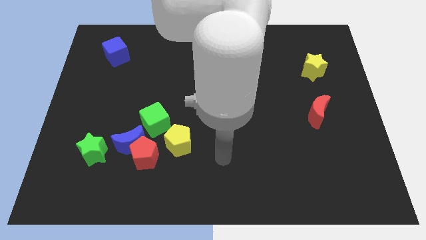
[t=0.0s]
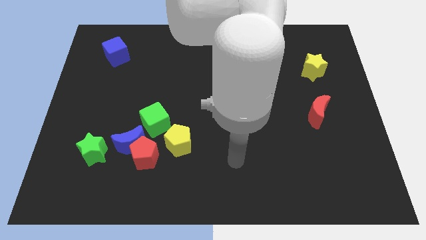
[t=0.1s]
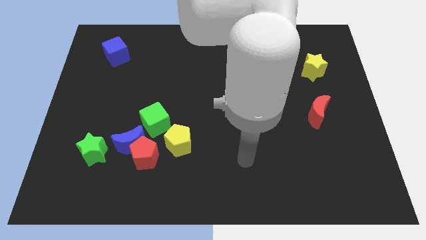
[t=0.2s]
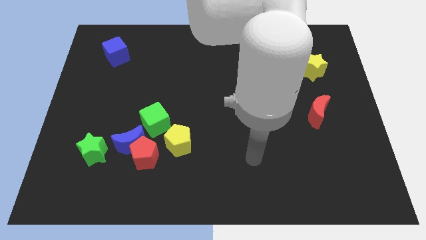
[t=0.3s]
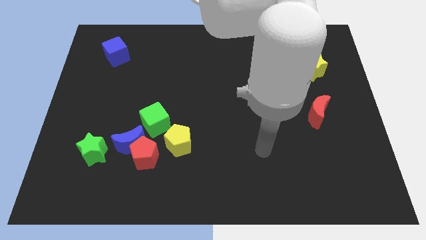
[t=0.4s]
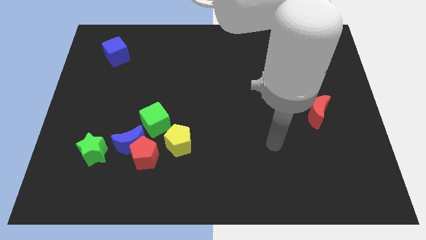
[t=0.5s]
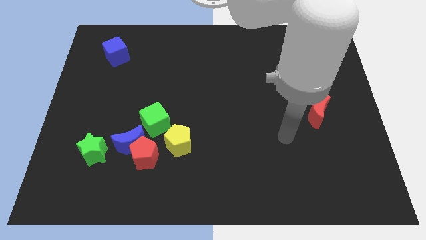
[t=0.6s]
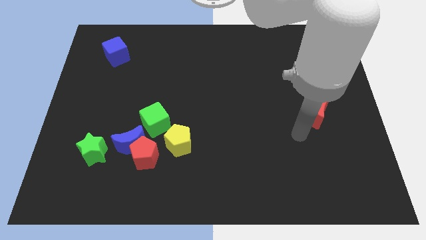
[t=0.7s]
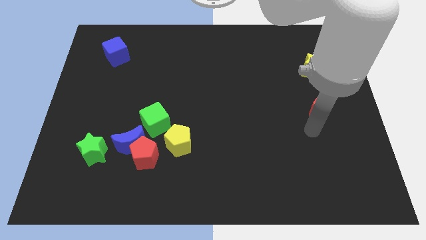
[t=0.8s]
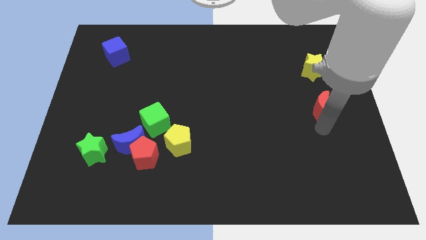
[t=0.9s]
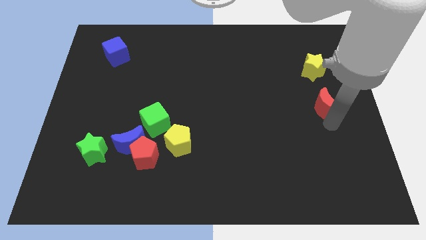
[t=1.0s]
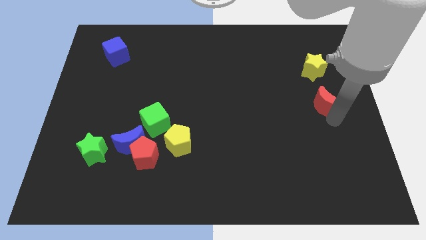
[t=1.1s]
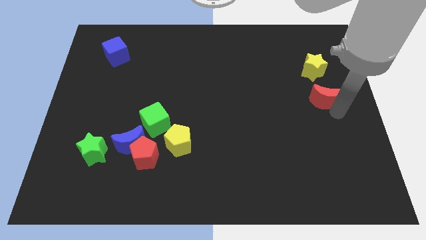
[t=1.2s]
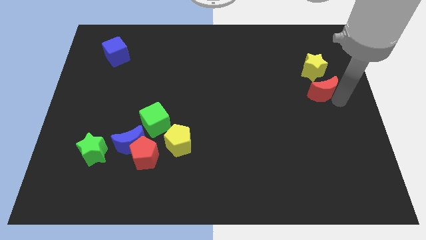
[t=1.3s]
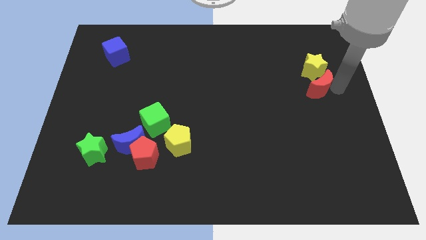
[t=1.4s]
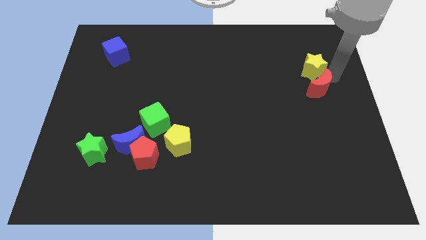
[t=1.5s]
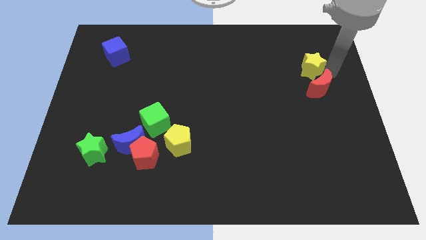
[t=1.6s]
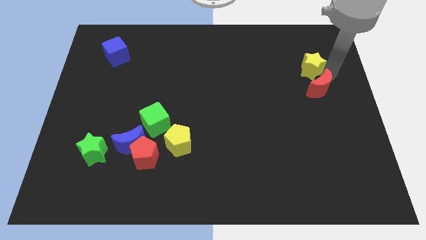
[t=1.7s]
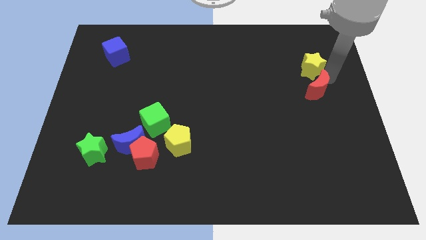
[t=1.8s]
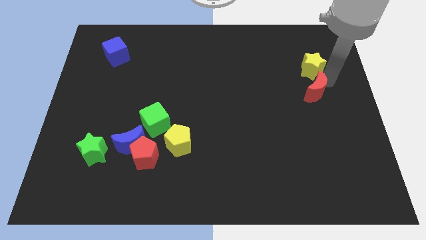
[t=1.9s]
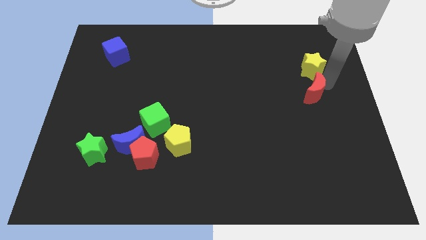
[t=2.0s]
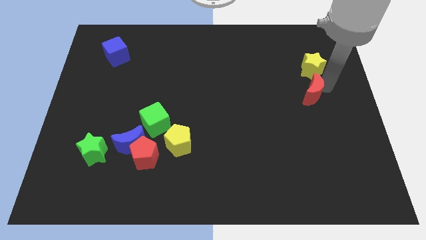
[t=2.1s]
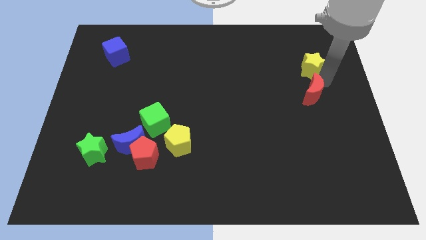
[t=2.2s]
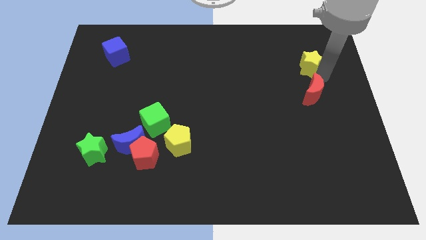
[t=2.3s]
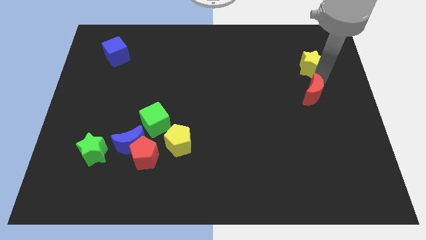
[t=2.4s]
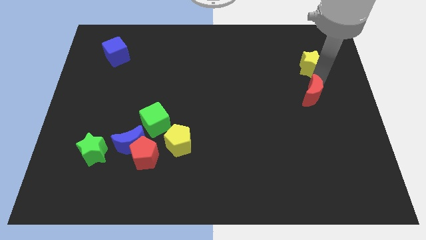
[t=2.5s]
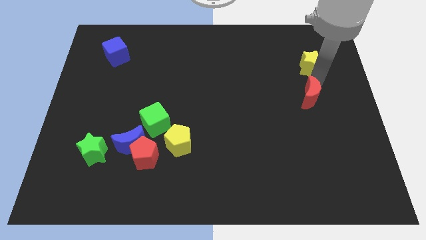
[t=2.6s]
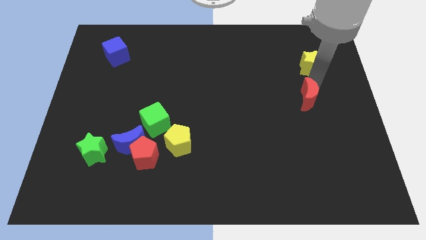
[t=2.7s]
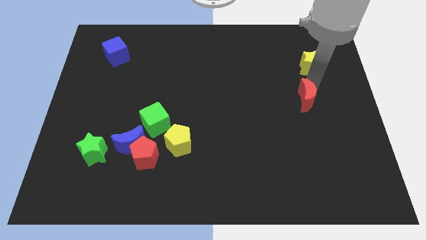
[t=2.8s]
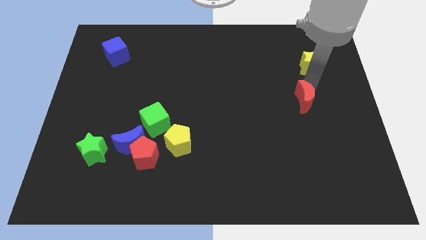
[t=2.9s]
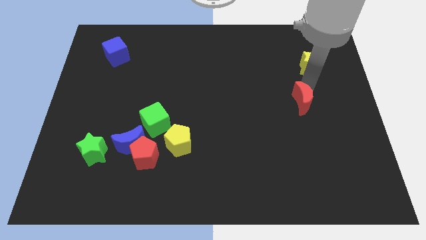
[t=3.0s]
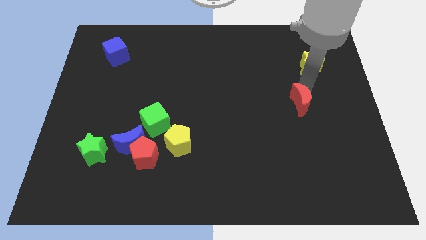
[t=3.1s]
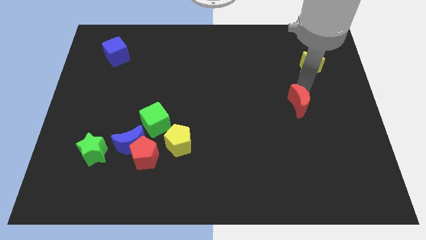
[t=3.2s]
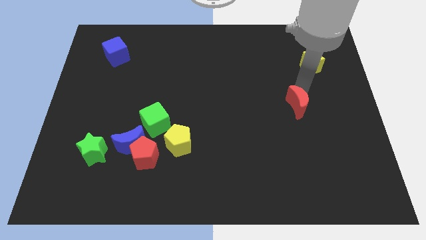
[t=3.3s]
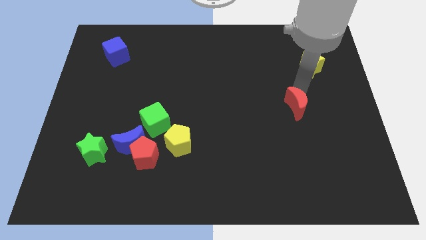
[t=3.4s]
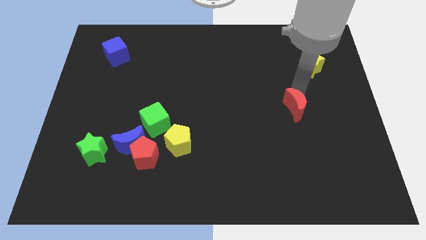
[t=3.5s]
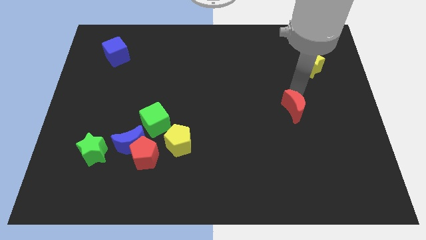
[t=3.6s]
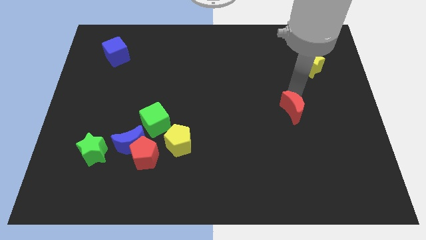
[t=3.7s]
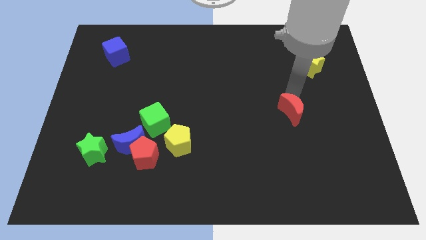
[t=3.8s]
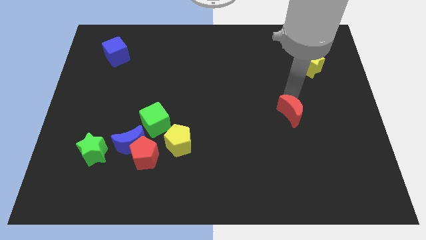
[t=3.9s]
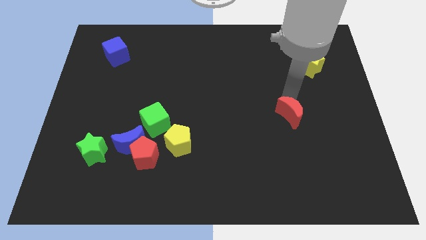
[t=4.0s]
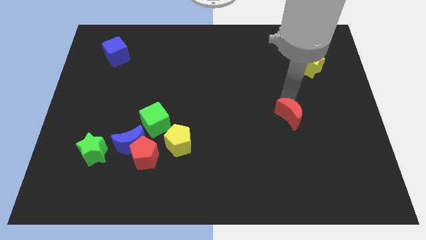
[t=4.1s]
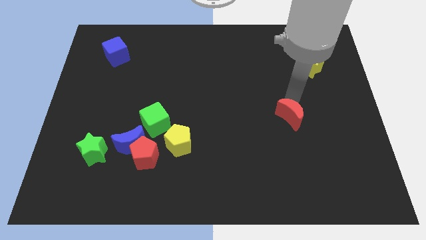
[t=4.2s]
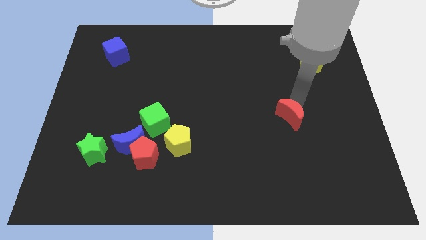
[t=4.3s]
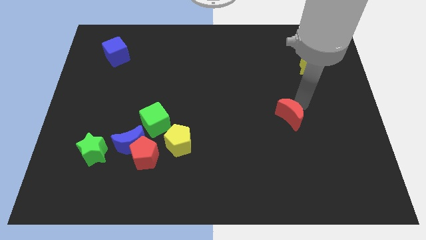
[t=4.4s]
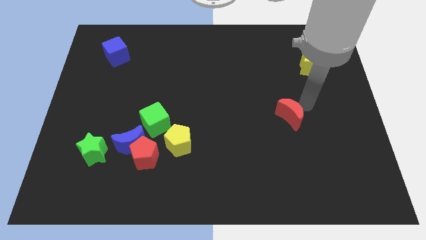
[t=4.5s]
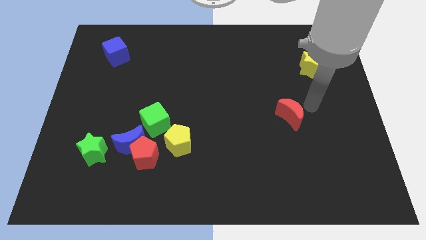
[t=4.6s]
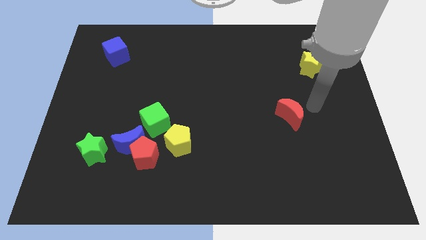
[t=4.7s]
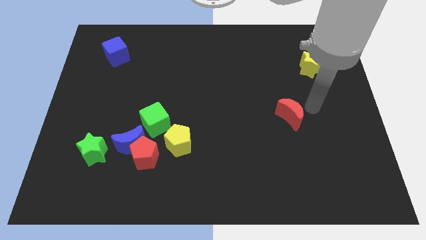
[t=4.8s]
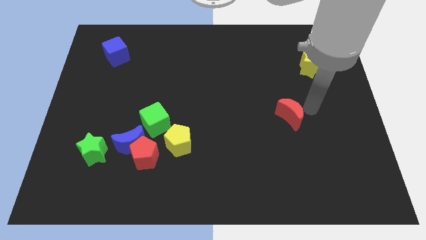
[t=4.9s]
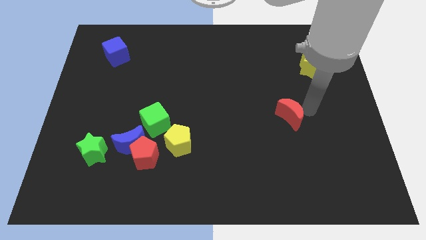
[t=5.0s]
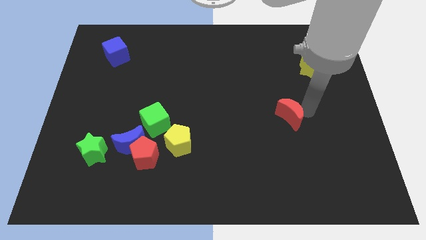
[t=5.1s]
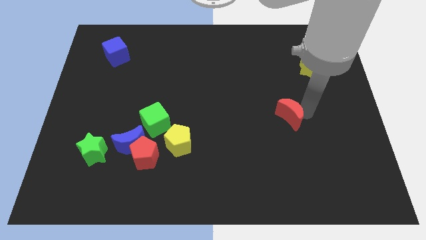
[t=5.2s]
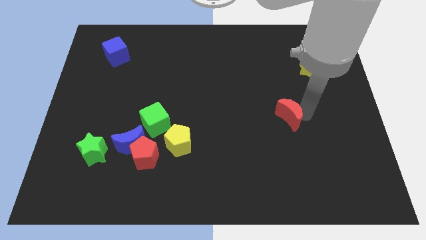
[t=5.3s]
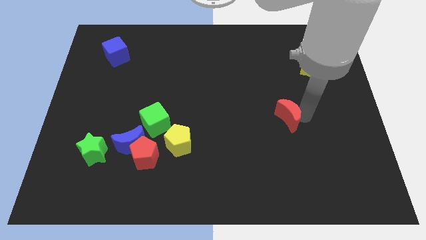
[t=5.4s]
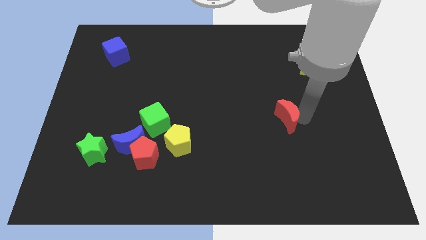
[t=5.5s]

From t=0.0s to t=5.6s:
slightly push the red moon left

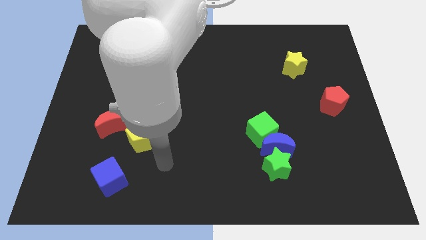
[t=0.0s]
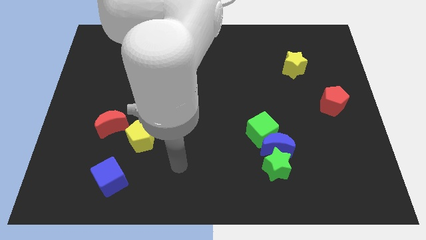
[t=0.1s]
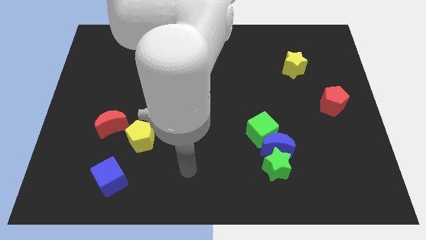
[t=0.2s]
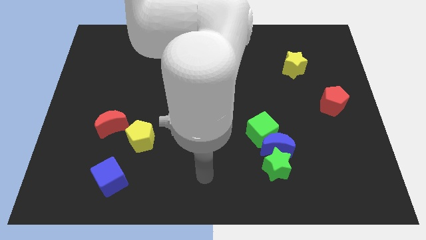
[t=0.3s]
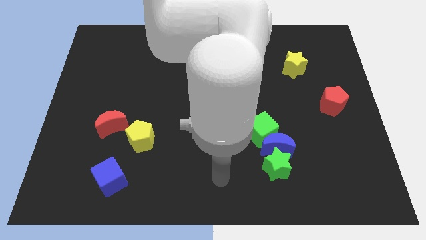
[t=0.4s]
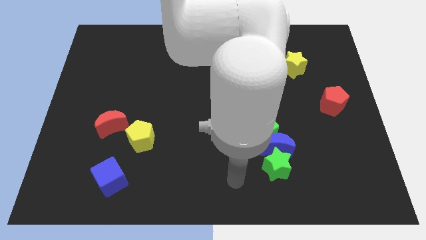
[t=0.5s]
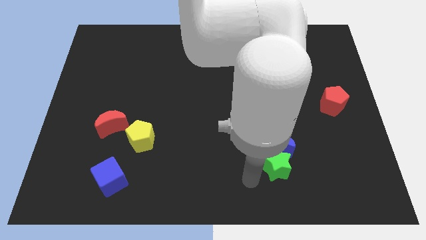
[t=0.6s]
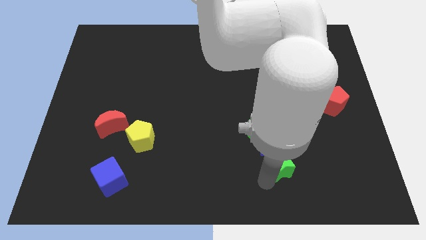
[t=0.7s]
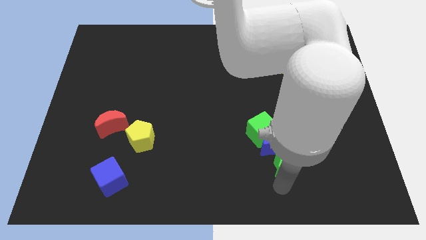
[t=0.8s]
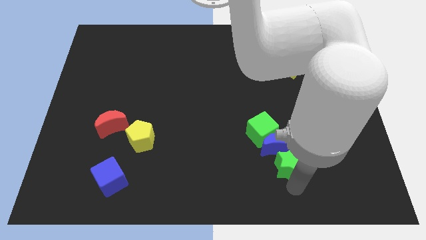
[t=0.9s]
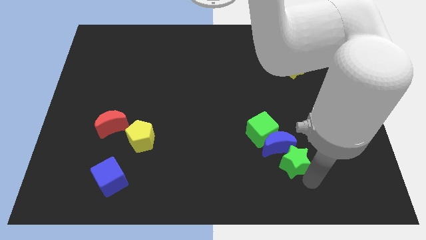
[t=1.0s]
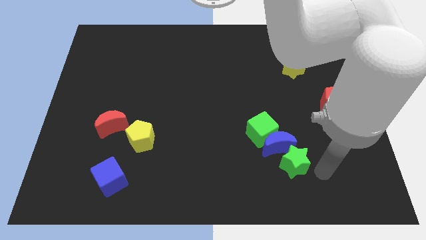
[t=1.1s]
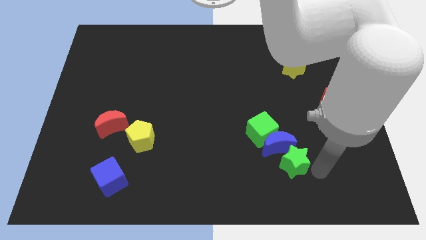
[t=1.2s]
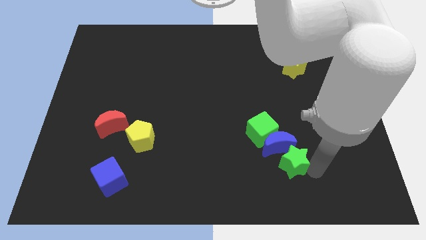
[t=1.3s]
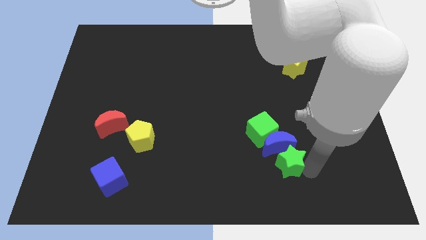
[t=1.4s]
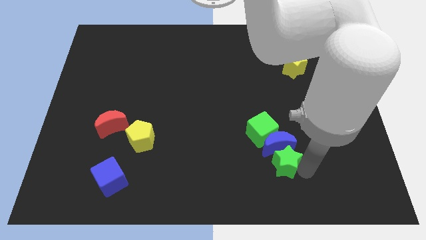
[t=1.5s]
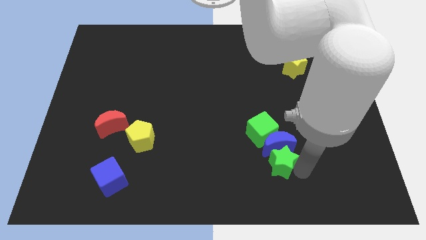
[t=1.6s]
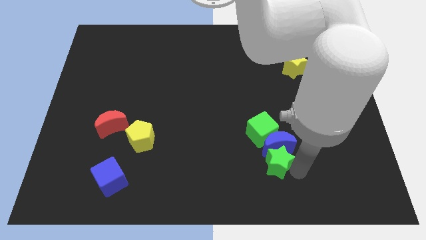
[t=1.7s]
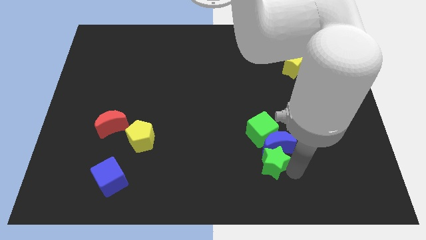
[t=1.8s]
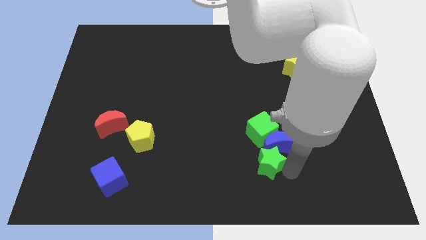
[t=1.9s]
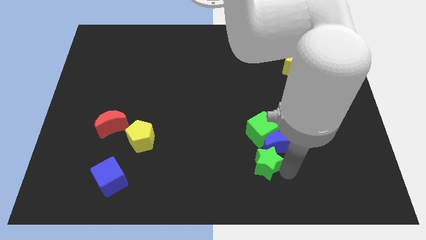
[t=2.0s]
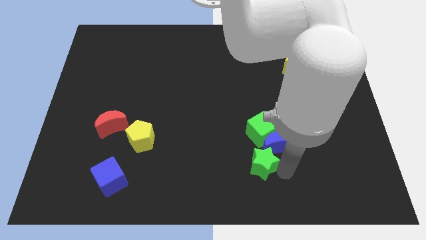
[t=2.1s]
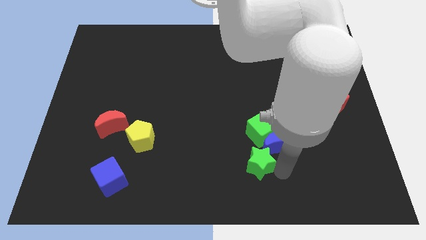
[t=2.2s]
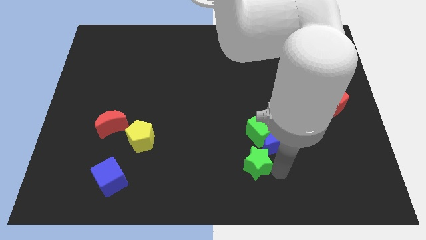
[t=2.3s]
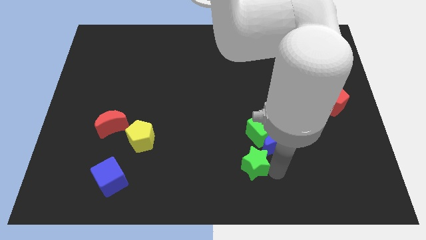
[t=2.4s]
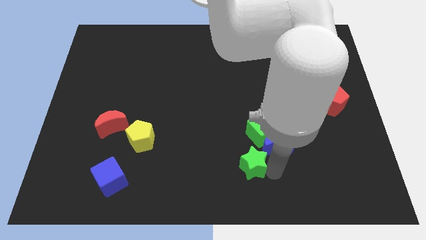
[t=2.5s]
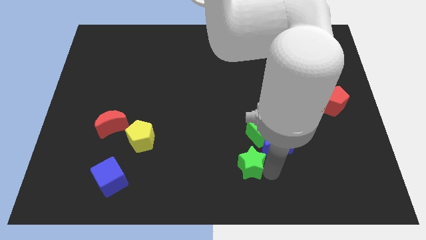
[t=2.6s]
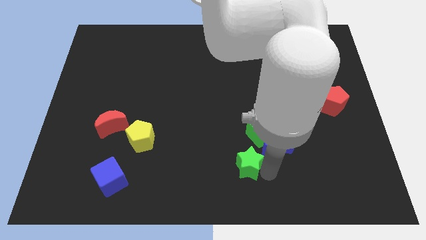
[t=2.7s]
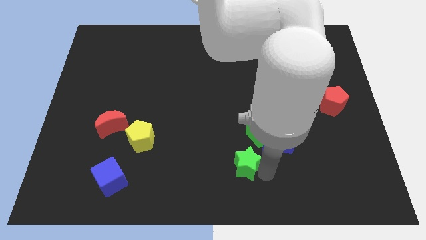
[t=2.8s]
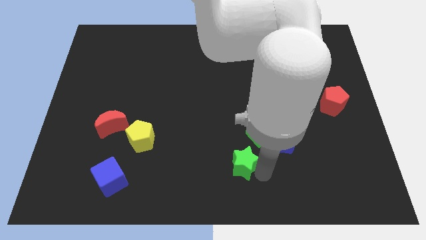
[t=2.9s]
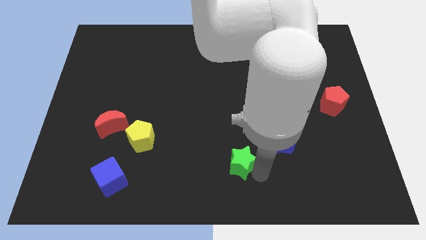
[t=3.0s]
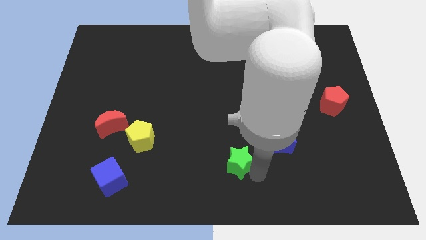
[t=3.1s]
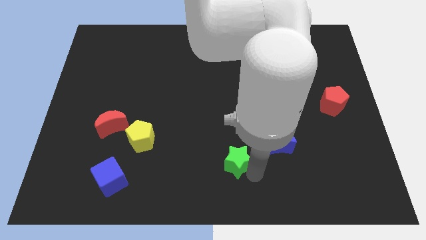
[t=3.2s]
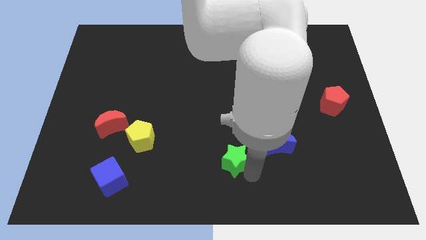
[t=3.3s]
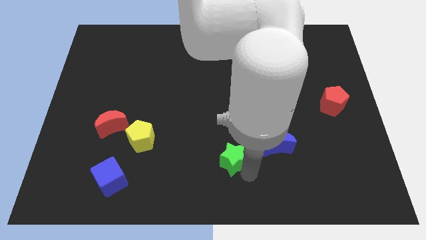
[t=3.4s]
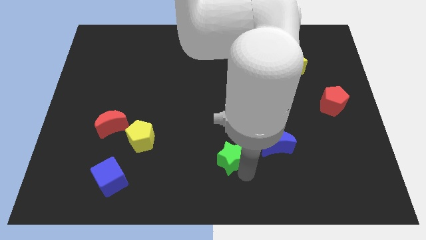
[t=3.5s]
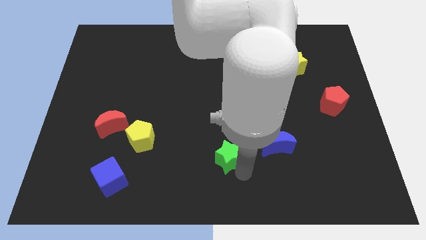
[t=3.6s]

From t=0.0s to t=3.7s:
slide the green star a little diagonally upwards and left
